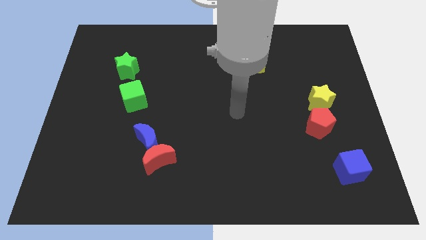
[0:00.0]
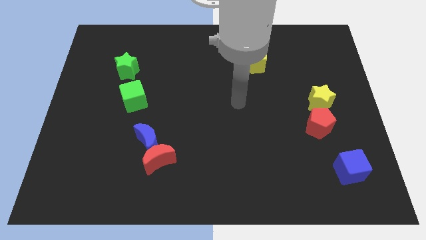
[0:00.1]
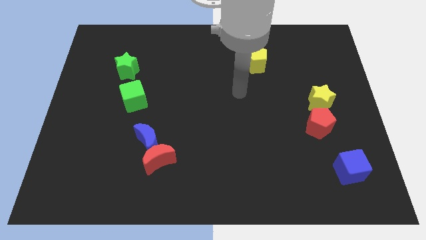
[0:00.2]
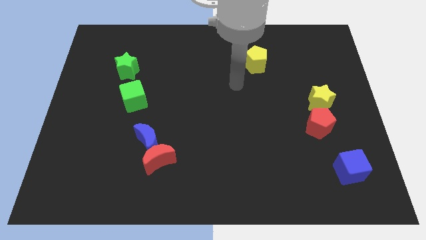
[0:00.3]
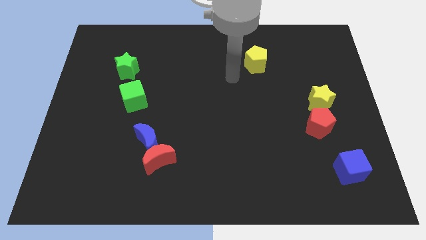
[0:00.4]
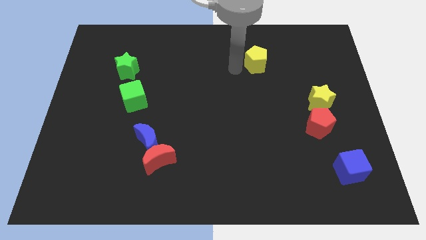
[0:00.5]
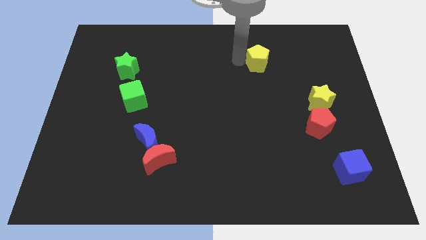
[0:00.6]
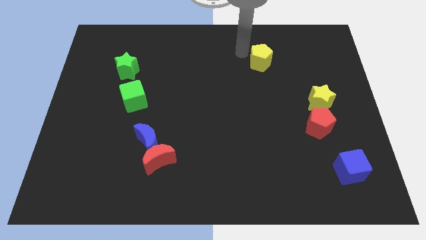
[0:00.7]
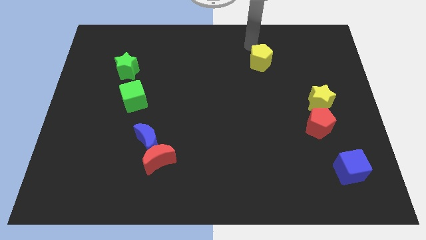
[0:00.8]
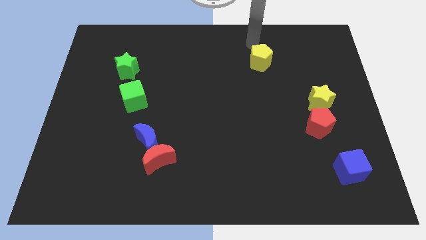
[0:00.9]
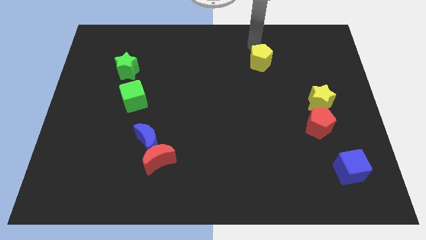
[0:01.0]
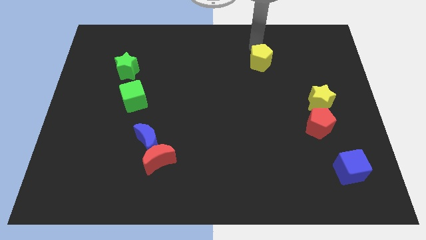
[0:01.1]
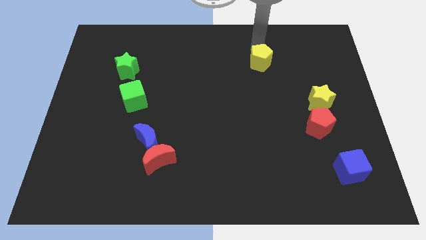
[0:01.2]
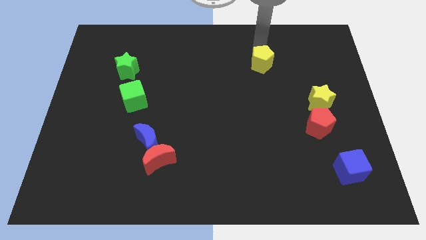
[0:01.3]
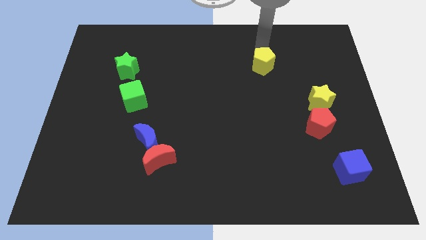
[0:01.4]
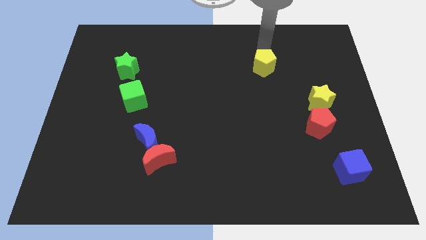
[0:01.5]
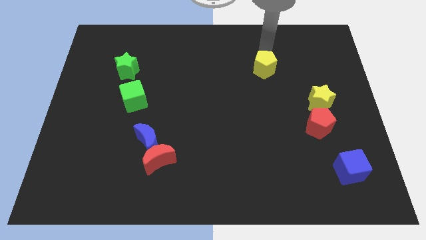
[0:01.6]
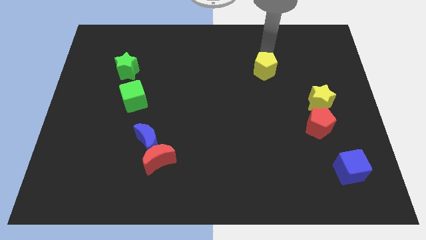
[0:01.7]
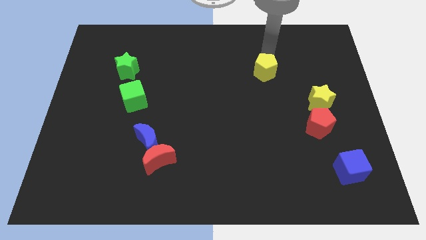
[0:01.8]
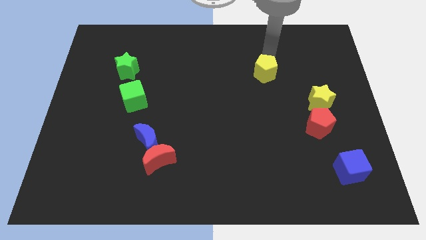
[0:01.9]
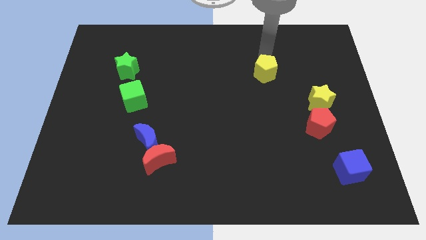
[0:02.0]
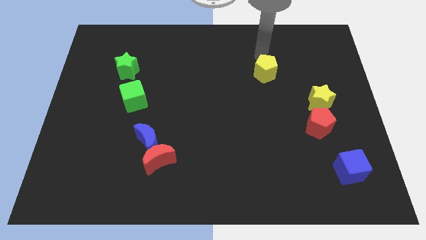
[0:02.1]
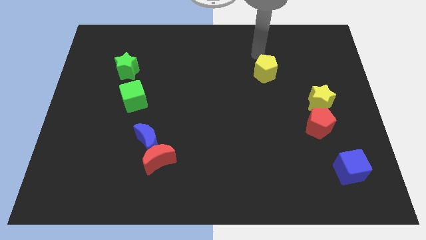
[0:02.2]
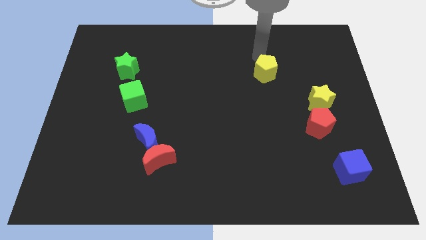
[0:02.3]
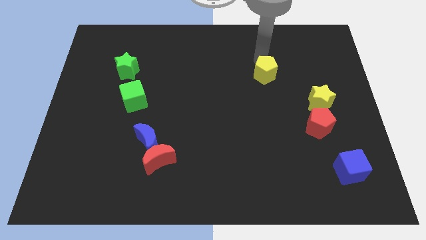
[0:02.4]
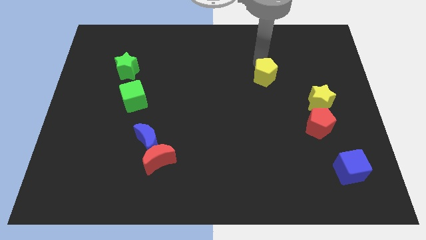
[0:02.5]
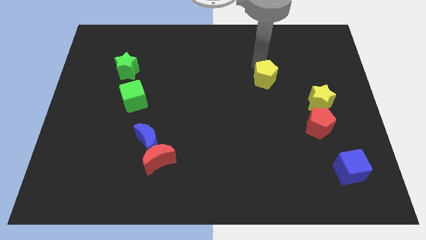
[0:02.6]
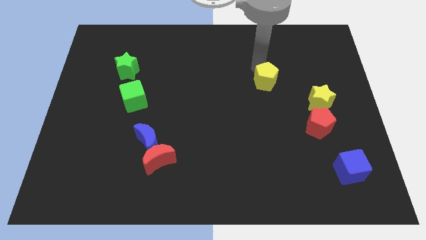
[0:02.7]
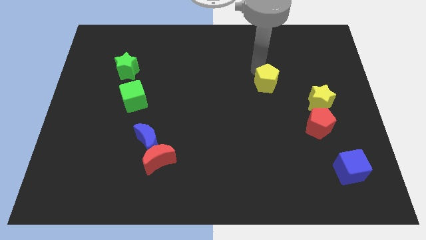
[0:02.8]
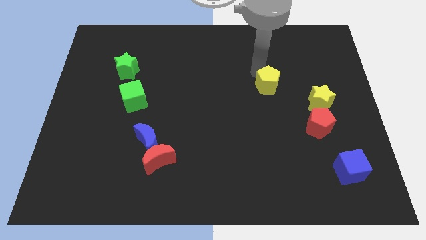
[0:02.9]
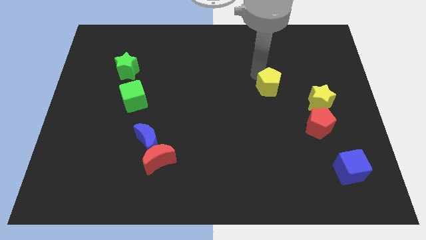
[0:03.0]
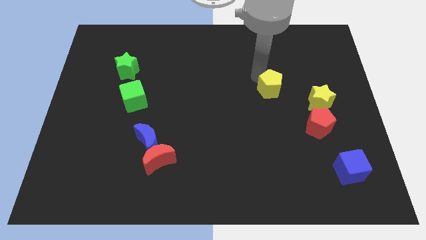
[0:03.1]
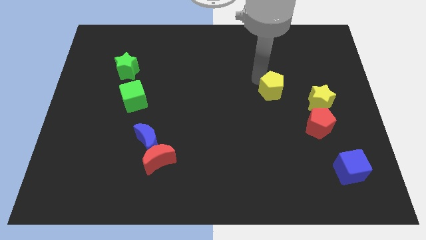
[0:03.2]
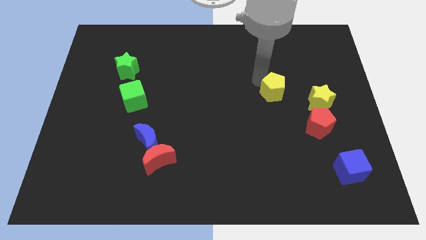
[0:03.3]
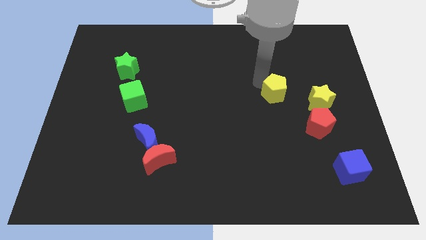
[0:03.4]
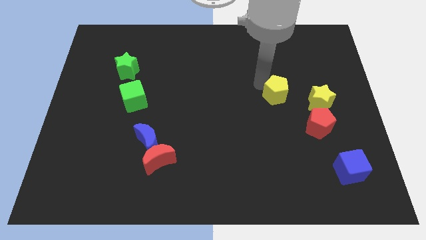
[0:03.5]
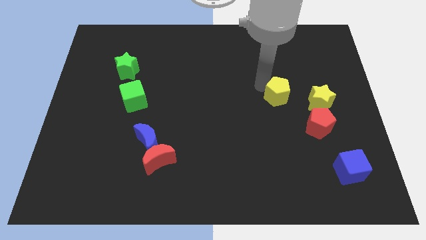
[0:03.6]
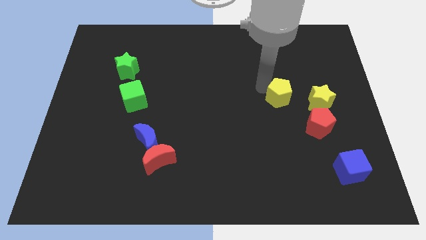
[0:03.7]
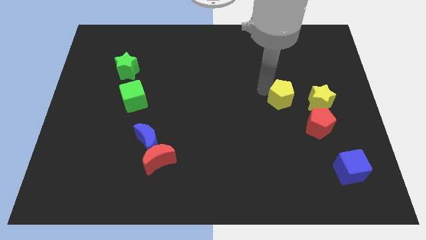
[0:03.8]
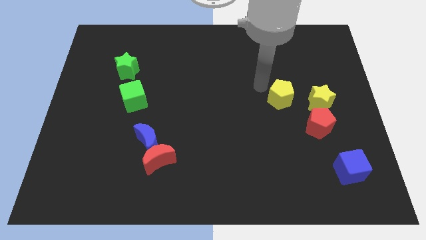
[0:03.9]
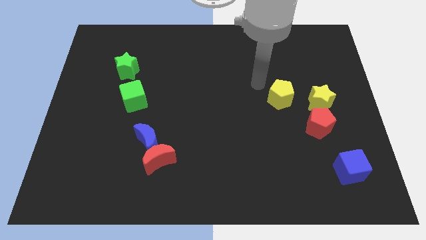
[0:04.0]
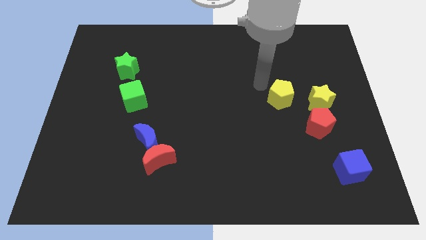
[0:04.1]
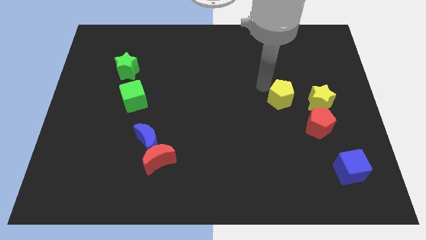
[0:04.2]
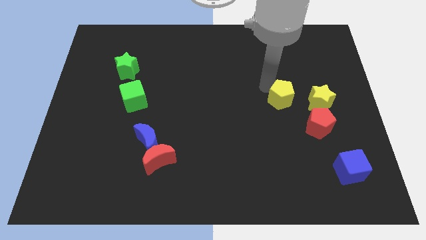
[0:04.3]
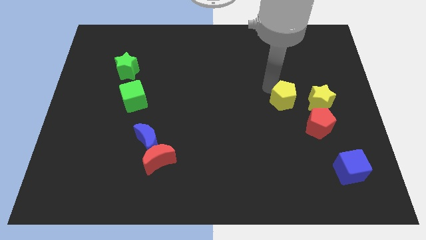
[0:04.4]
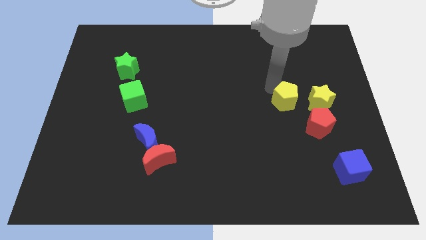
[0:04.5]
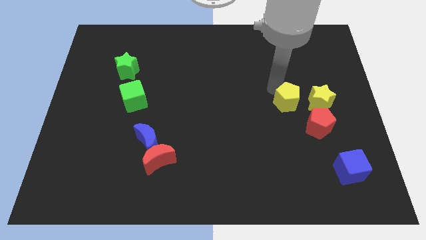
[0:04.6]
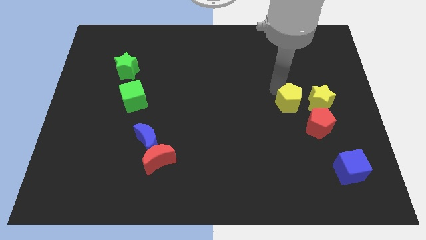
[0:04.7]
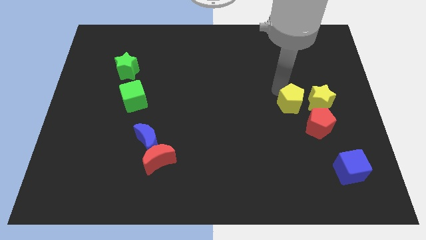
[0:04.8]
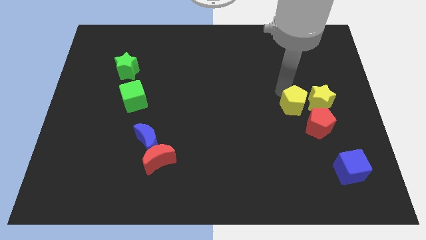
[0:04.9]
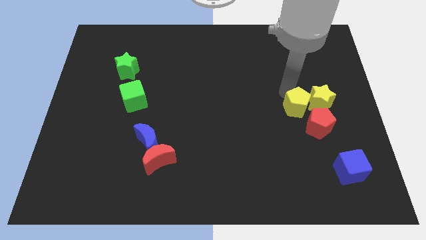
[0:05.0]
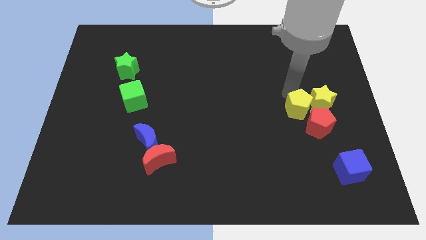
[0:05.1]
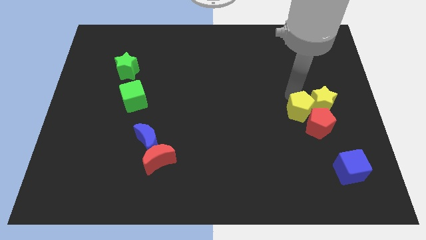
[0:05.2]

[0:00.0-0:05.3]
slide the yellow pentagon to the red pentagon

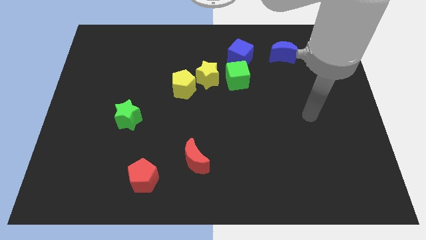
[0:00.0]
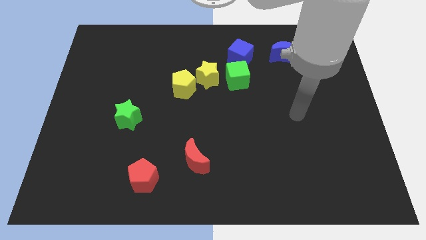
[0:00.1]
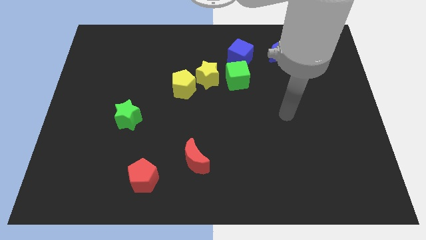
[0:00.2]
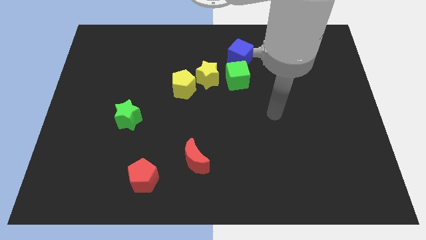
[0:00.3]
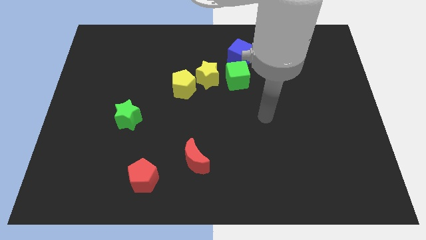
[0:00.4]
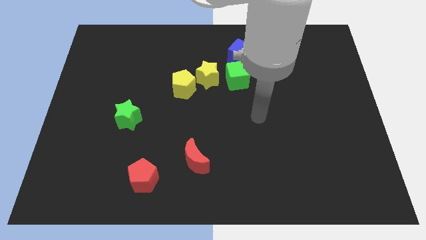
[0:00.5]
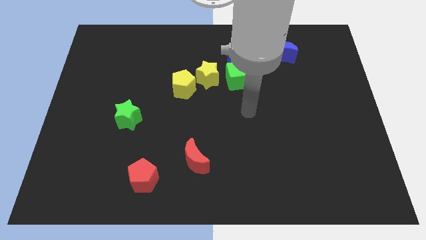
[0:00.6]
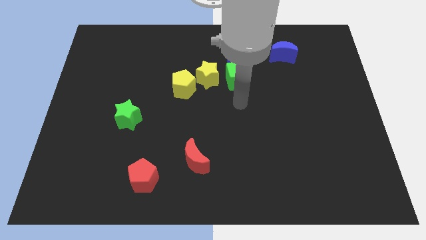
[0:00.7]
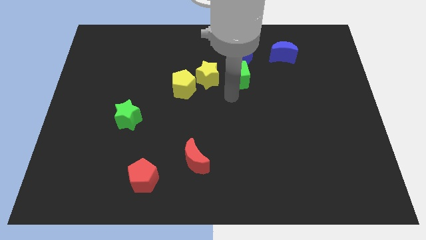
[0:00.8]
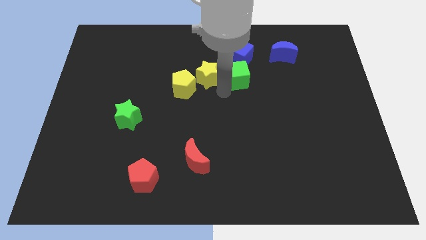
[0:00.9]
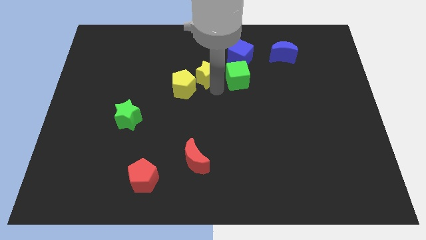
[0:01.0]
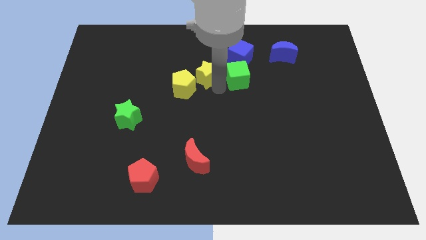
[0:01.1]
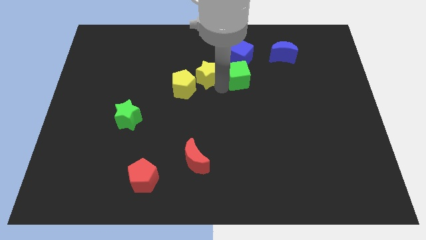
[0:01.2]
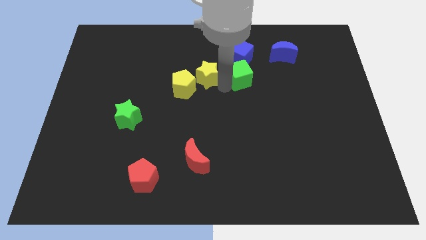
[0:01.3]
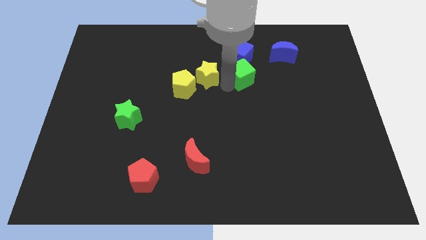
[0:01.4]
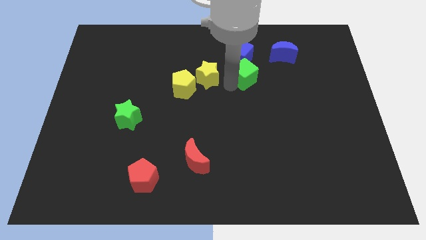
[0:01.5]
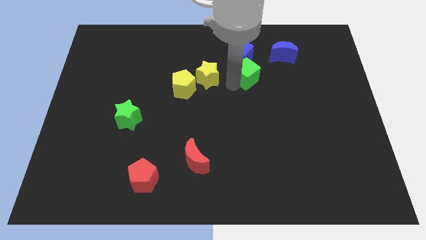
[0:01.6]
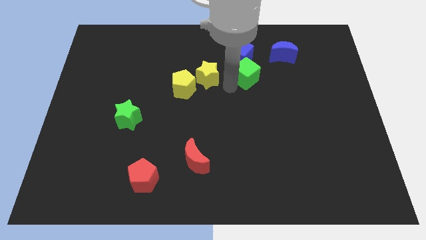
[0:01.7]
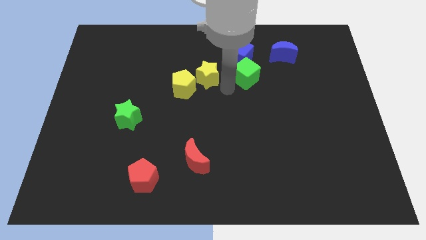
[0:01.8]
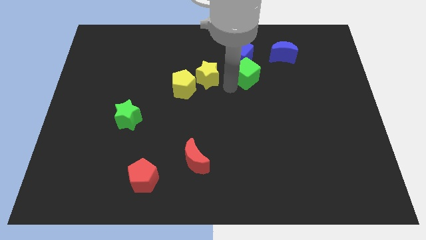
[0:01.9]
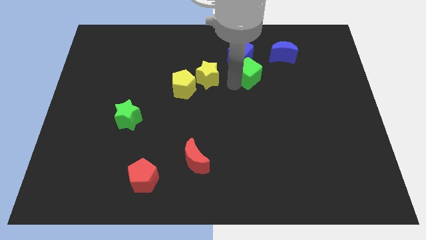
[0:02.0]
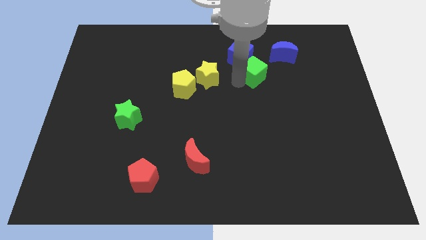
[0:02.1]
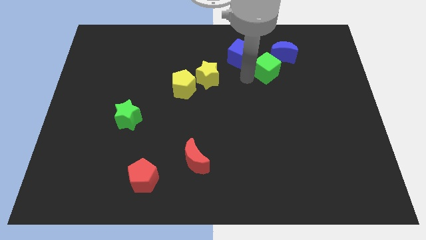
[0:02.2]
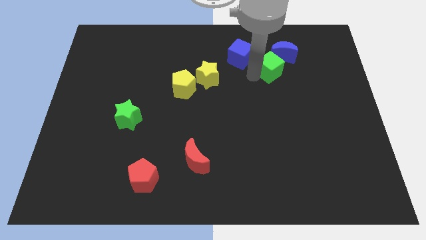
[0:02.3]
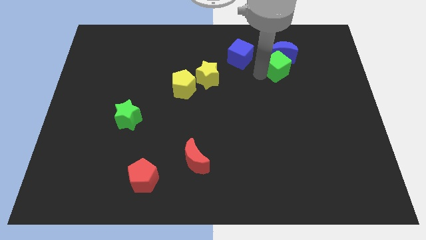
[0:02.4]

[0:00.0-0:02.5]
put the green cube towards the blue moon
